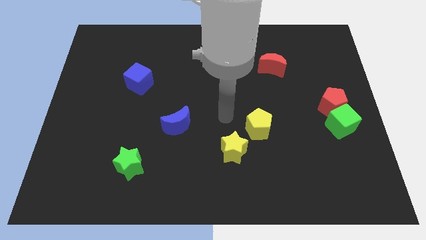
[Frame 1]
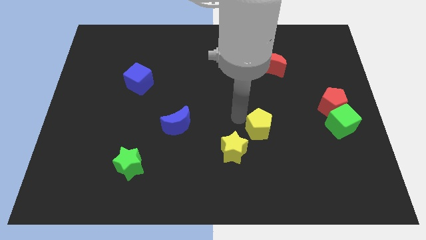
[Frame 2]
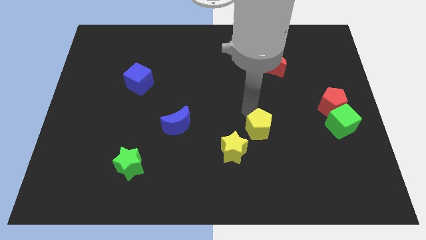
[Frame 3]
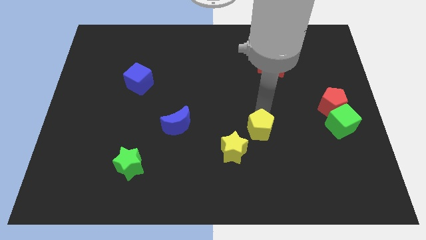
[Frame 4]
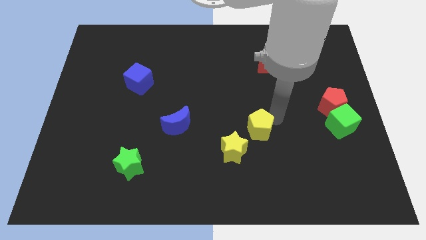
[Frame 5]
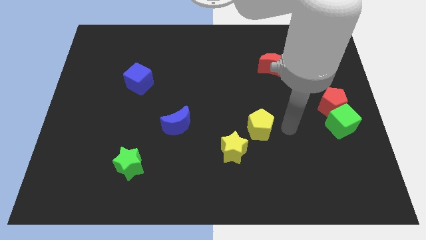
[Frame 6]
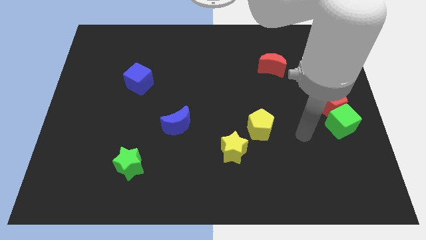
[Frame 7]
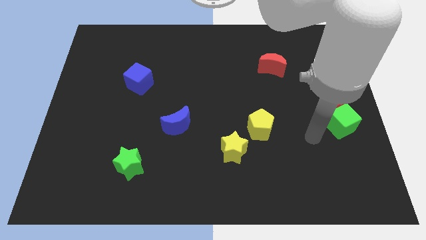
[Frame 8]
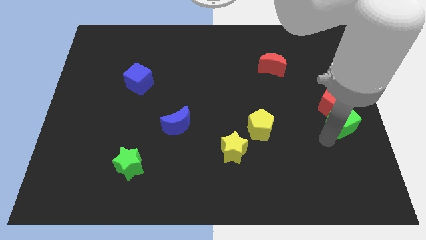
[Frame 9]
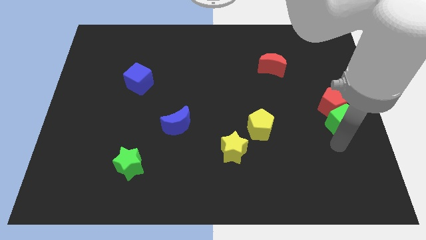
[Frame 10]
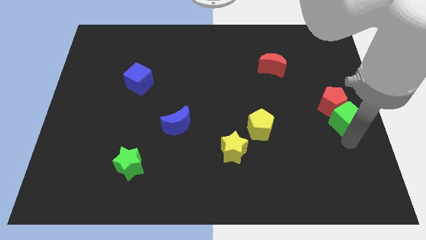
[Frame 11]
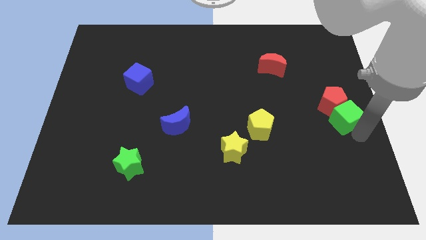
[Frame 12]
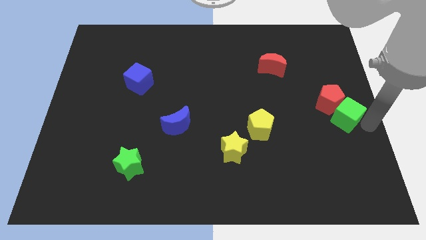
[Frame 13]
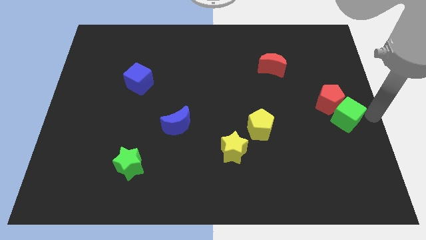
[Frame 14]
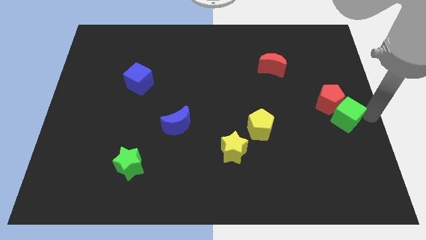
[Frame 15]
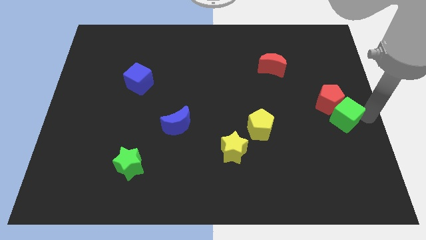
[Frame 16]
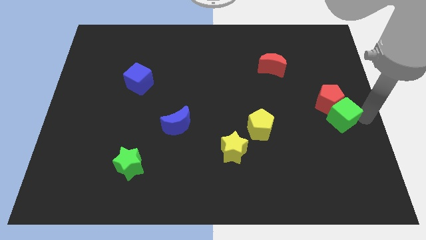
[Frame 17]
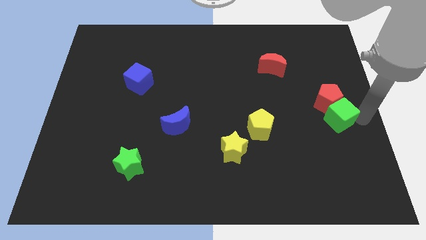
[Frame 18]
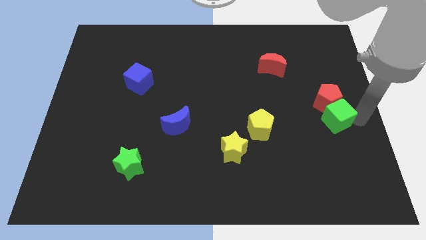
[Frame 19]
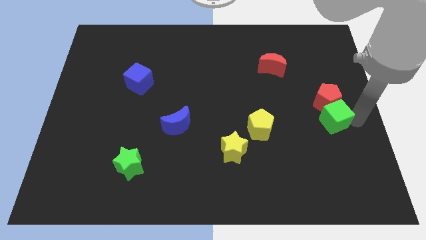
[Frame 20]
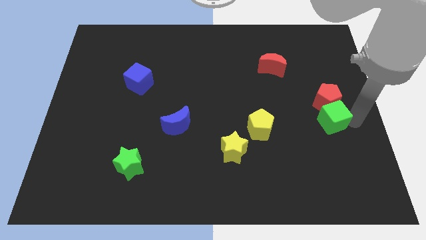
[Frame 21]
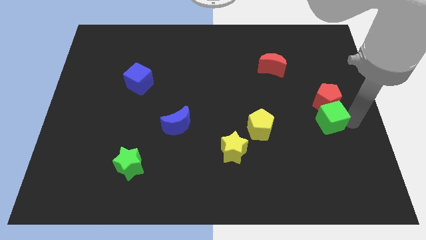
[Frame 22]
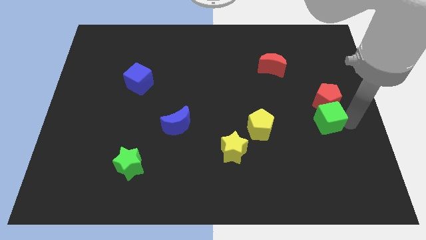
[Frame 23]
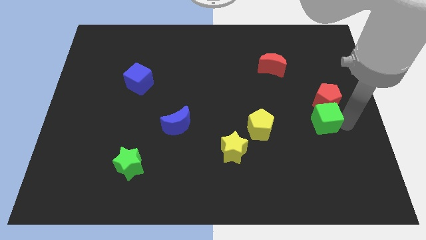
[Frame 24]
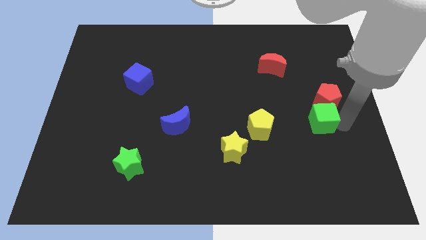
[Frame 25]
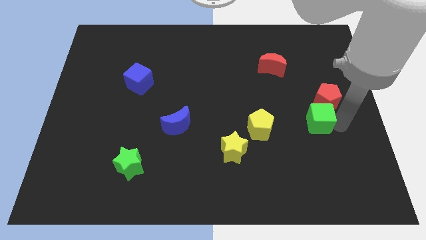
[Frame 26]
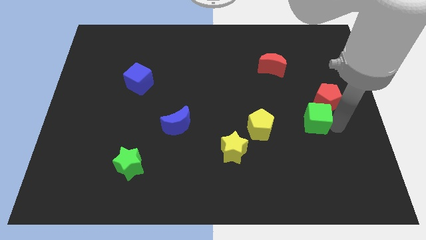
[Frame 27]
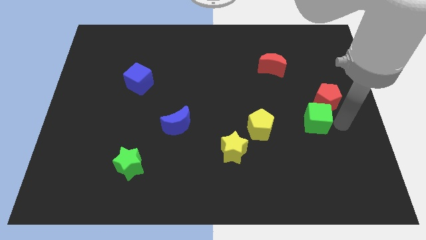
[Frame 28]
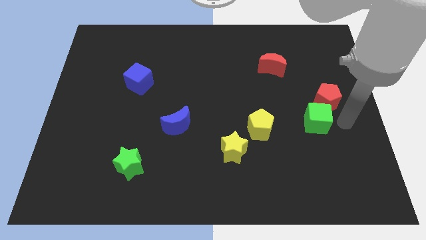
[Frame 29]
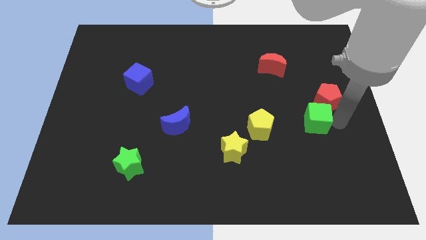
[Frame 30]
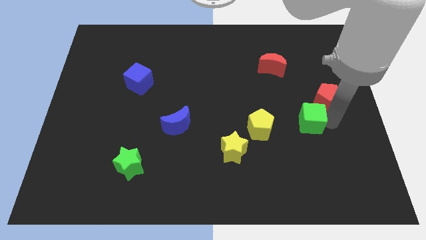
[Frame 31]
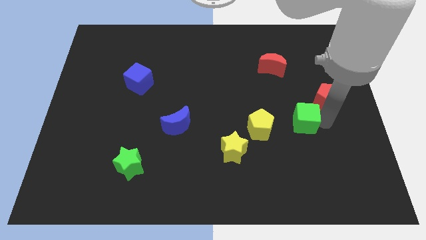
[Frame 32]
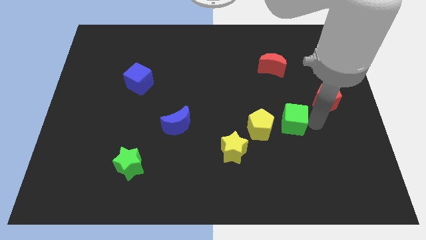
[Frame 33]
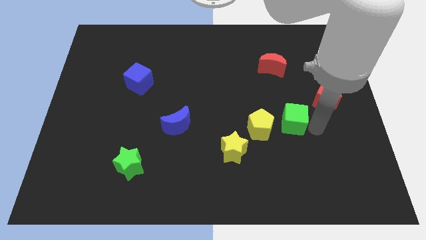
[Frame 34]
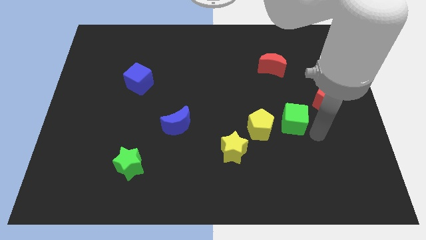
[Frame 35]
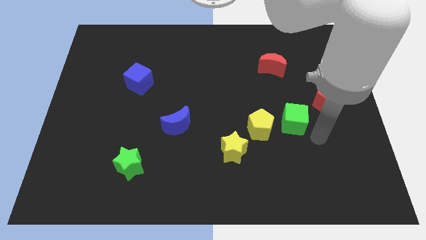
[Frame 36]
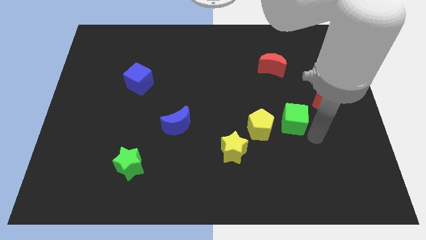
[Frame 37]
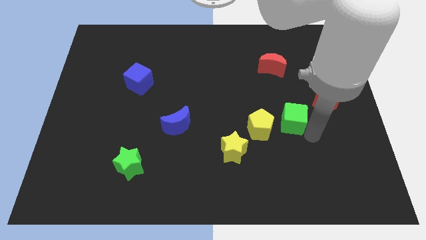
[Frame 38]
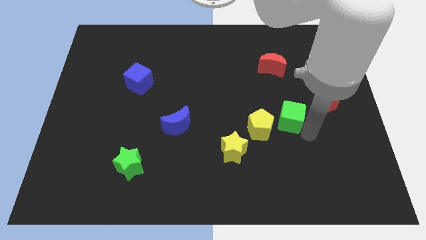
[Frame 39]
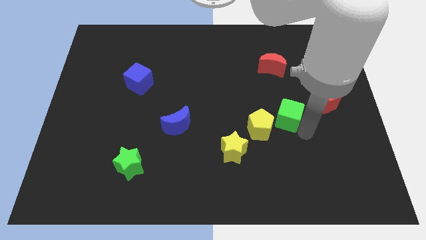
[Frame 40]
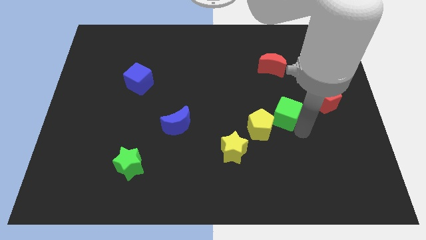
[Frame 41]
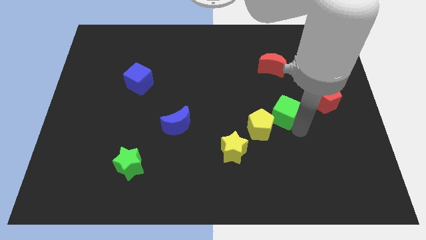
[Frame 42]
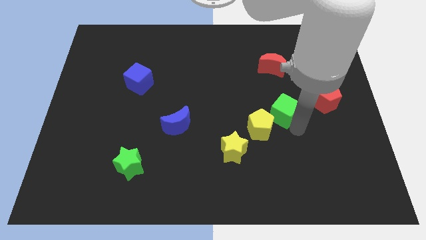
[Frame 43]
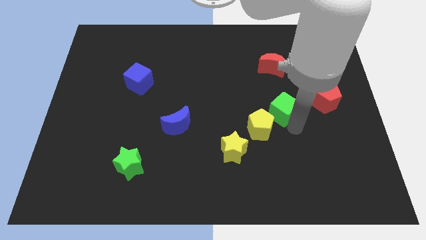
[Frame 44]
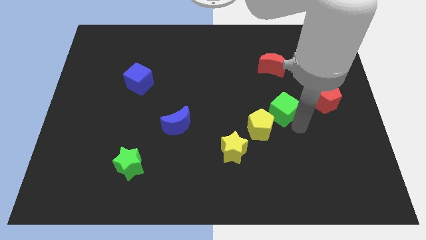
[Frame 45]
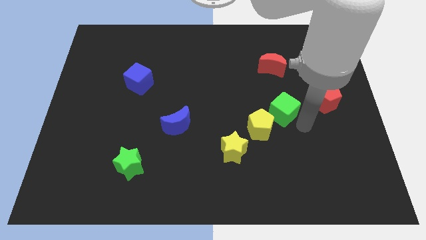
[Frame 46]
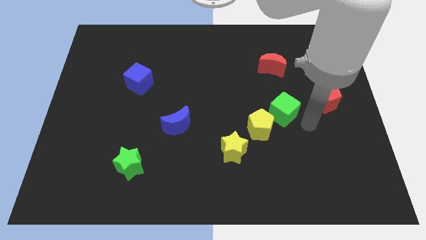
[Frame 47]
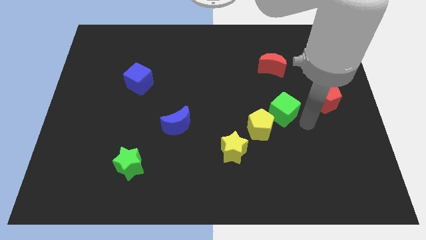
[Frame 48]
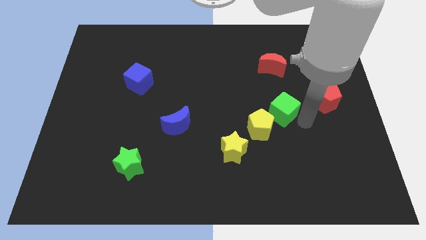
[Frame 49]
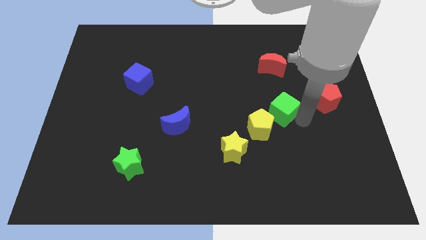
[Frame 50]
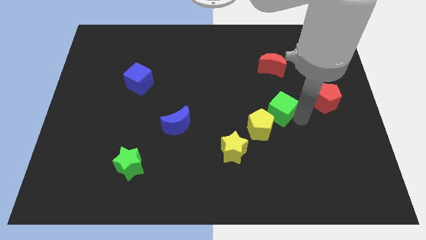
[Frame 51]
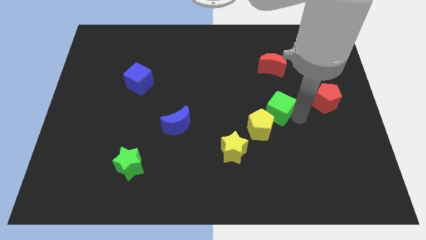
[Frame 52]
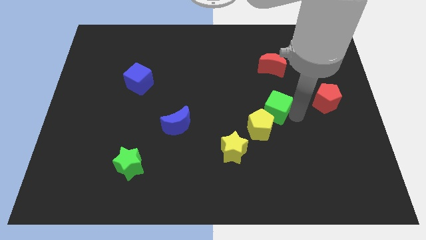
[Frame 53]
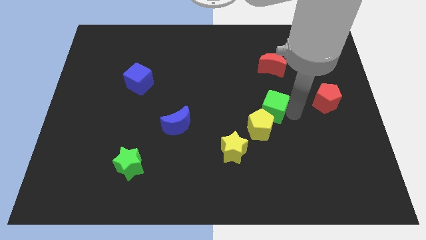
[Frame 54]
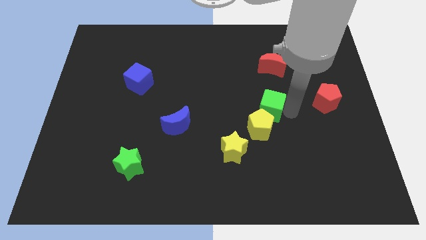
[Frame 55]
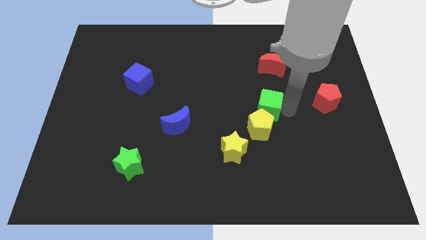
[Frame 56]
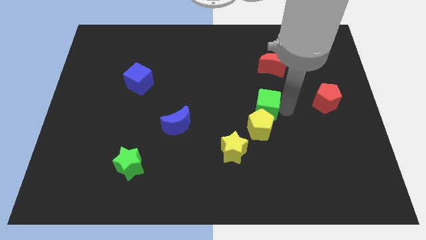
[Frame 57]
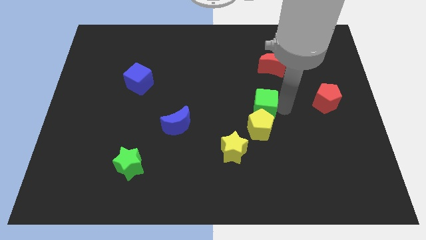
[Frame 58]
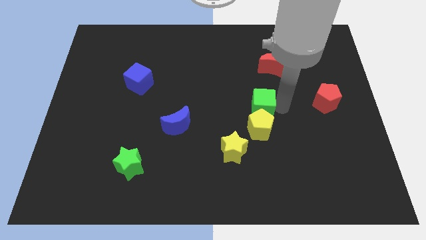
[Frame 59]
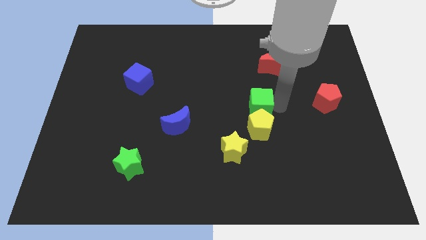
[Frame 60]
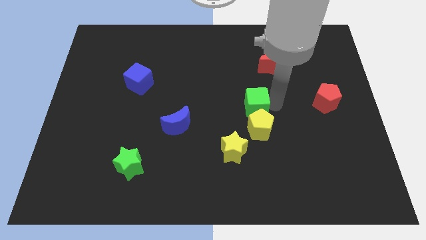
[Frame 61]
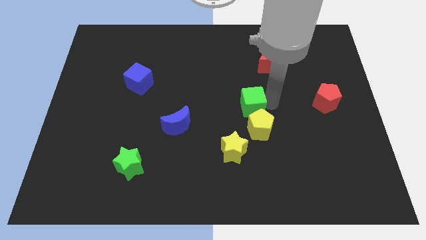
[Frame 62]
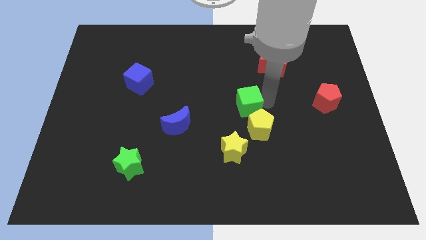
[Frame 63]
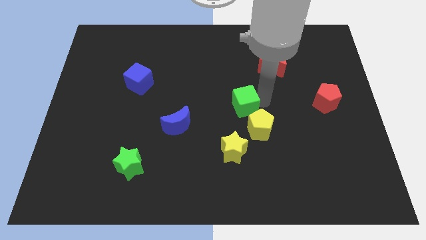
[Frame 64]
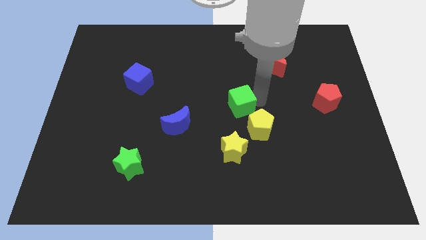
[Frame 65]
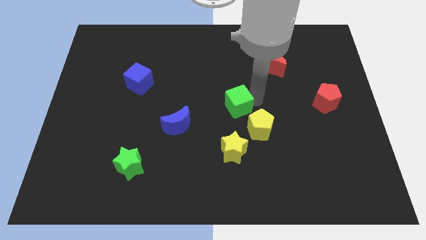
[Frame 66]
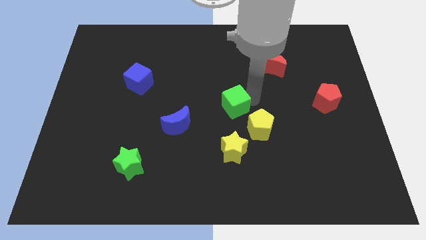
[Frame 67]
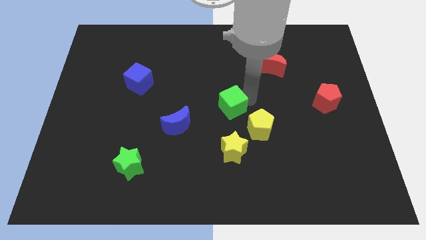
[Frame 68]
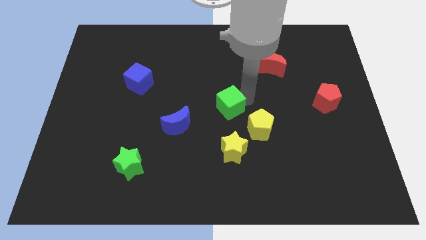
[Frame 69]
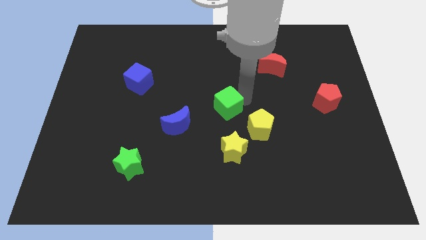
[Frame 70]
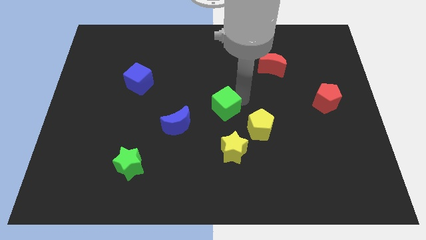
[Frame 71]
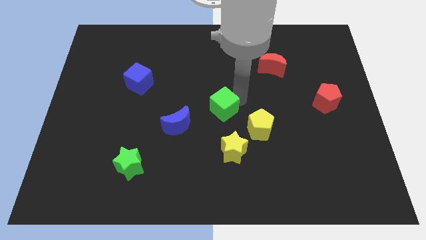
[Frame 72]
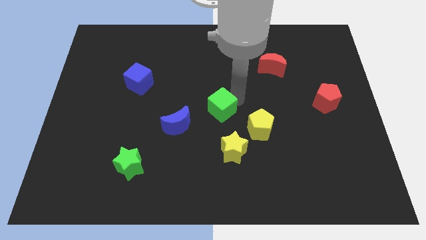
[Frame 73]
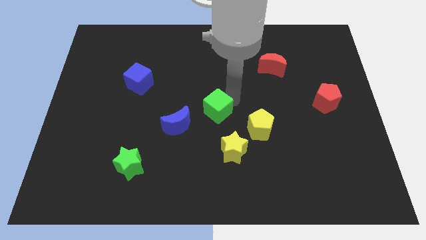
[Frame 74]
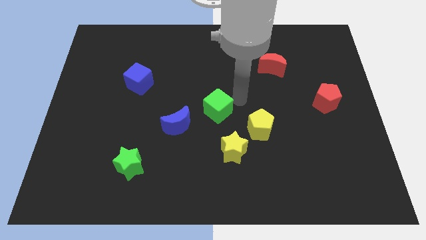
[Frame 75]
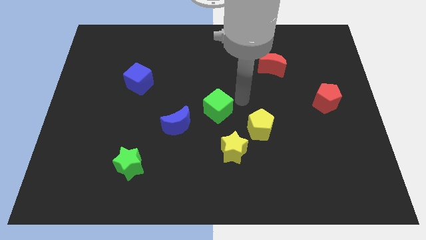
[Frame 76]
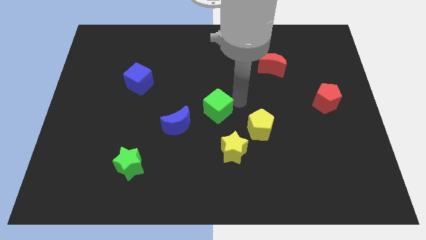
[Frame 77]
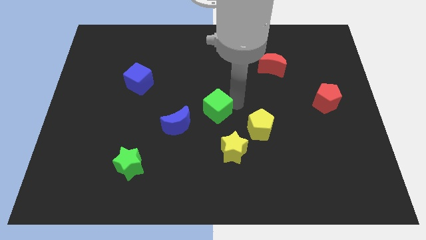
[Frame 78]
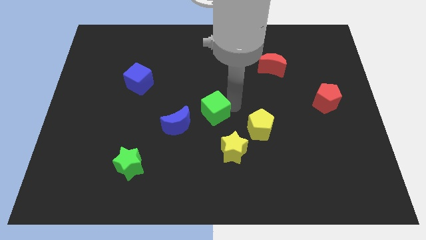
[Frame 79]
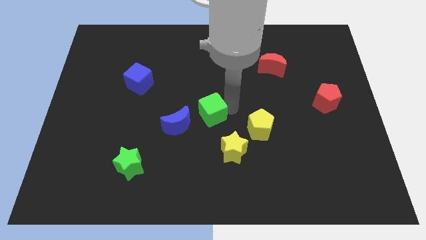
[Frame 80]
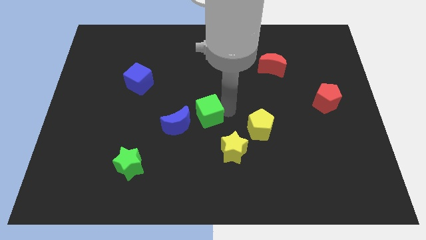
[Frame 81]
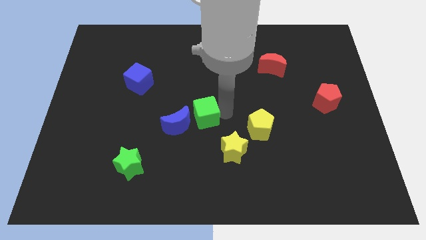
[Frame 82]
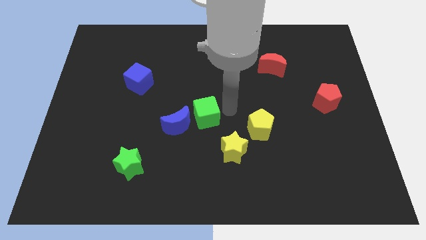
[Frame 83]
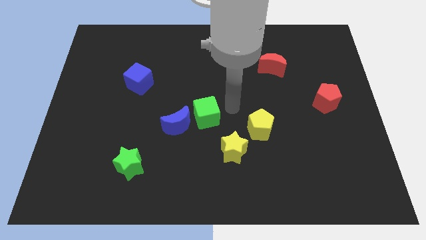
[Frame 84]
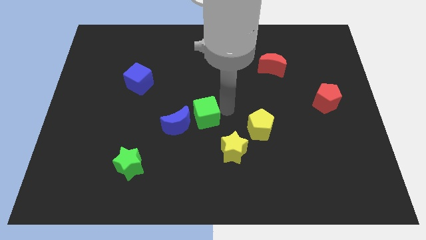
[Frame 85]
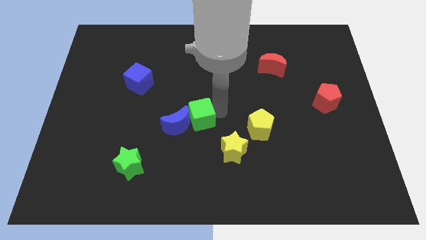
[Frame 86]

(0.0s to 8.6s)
move the green cube towards the blue moon
